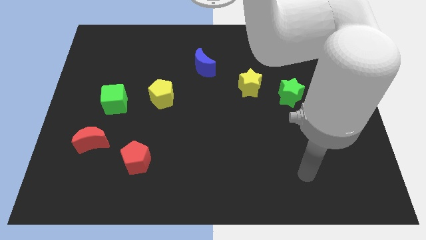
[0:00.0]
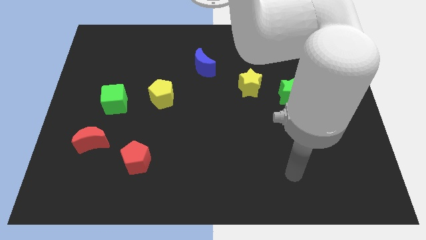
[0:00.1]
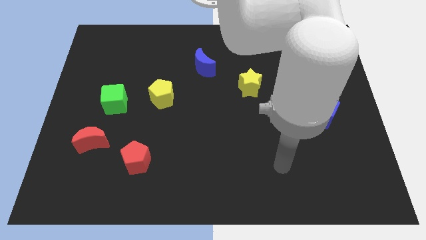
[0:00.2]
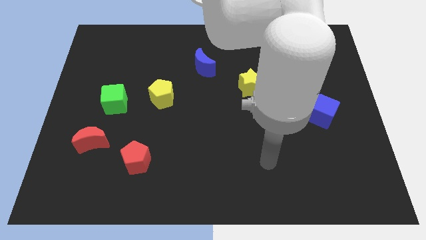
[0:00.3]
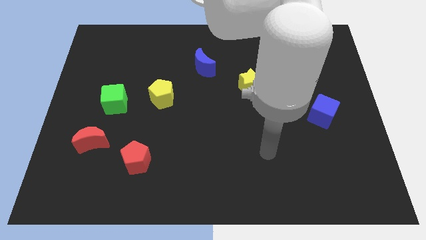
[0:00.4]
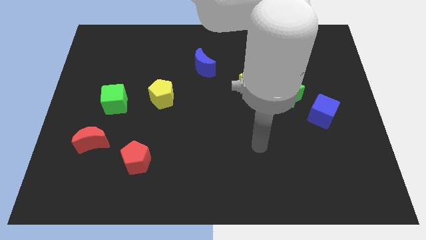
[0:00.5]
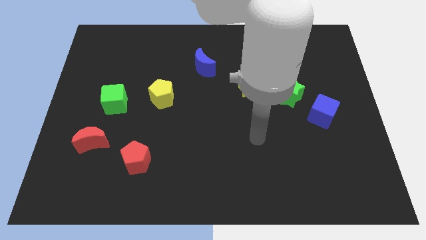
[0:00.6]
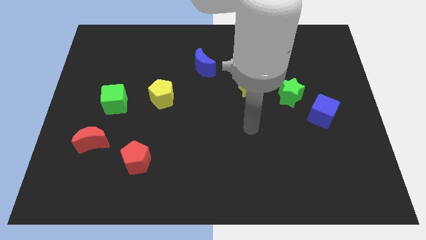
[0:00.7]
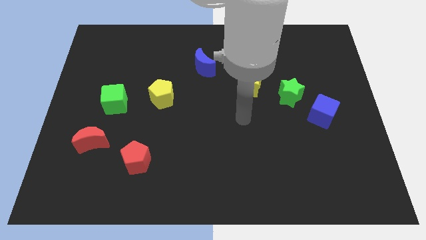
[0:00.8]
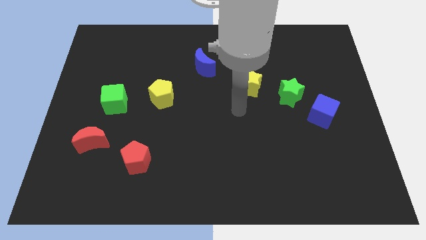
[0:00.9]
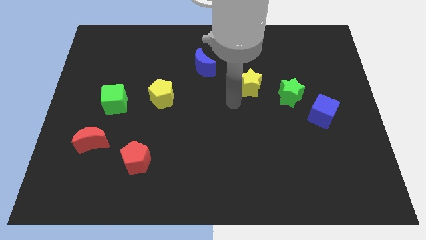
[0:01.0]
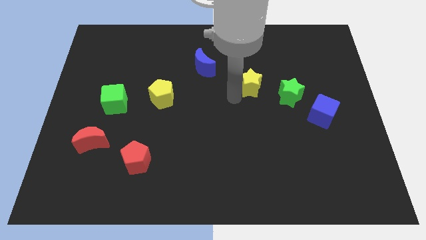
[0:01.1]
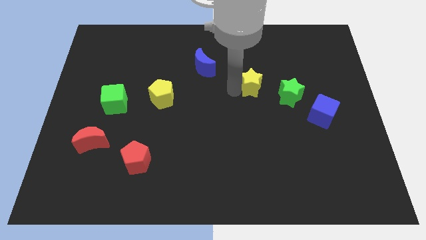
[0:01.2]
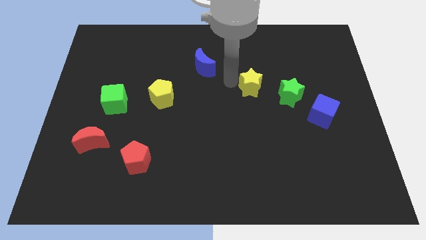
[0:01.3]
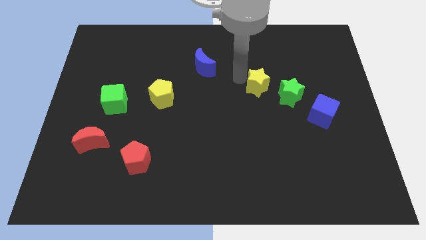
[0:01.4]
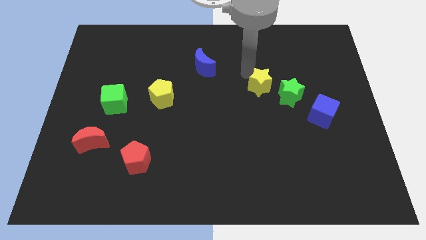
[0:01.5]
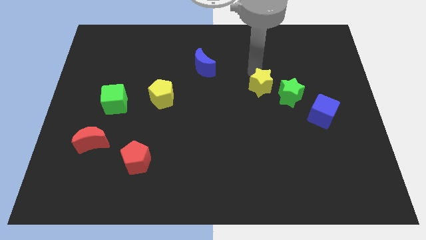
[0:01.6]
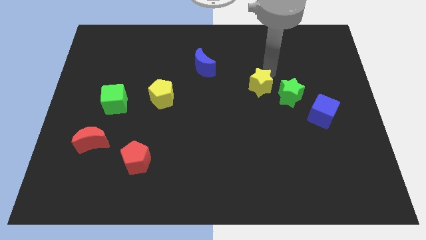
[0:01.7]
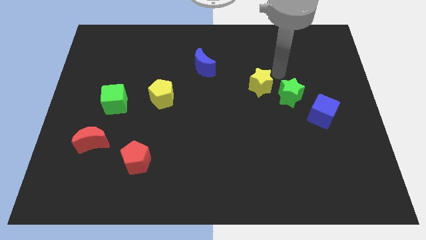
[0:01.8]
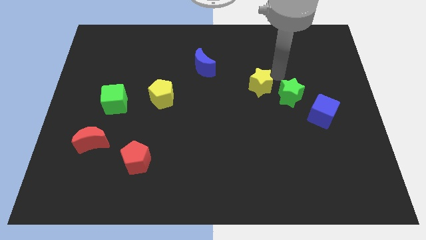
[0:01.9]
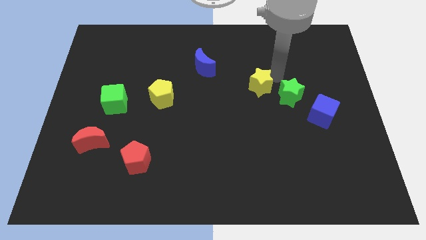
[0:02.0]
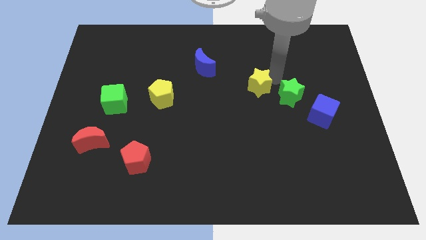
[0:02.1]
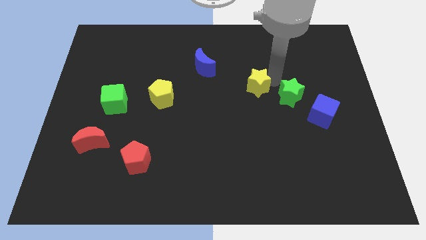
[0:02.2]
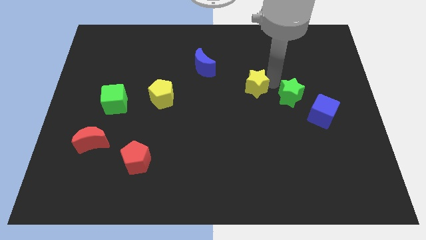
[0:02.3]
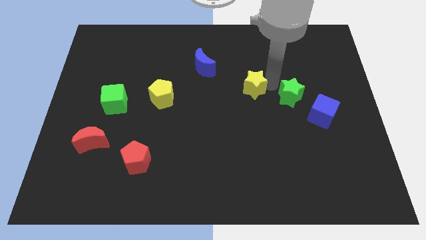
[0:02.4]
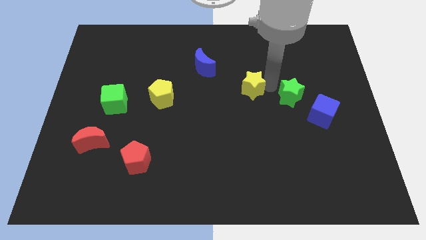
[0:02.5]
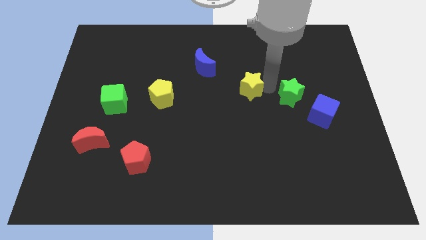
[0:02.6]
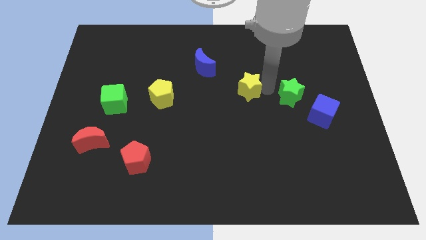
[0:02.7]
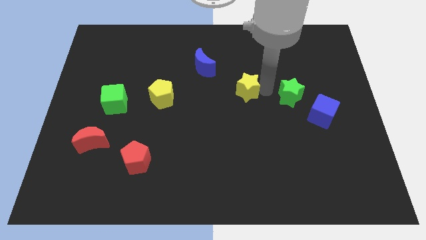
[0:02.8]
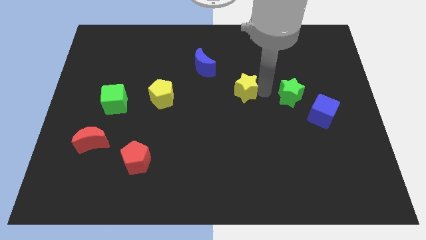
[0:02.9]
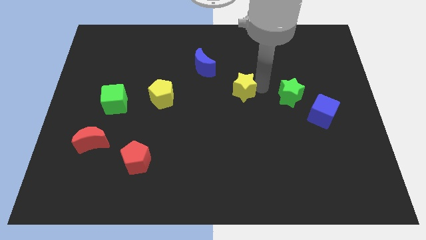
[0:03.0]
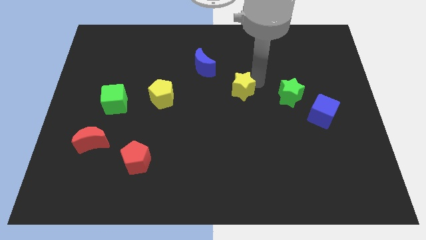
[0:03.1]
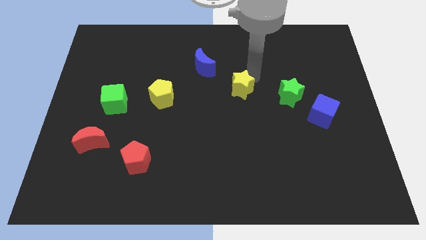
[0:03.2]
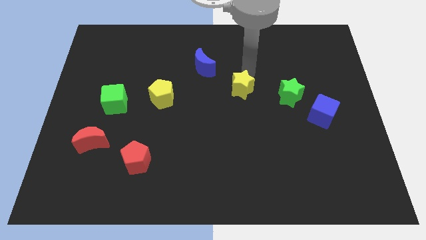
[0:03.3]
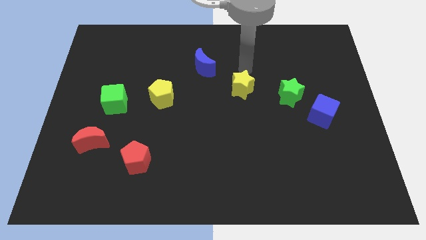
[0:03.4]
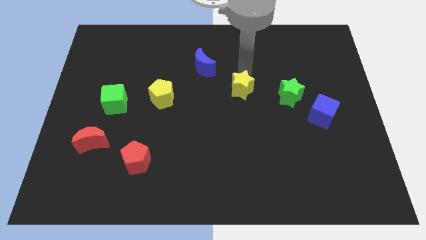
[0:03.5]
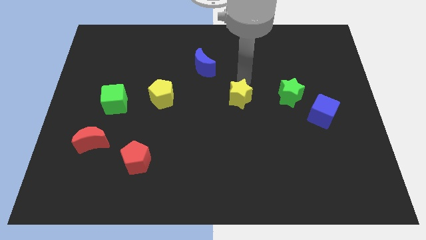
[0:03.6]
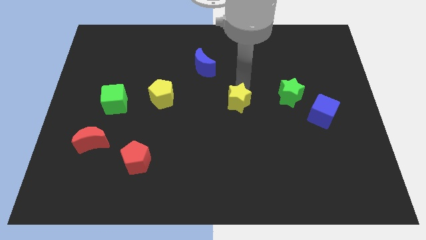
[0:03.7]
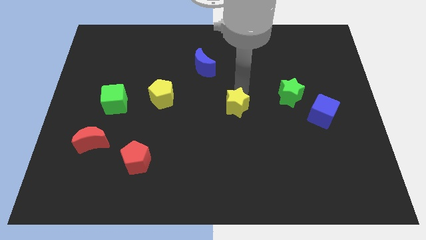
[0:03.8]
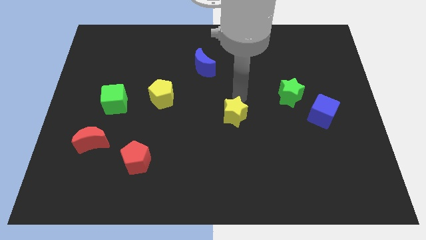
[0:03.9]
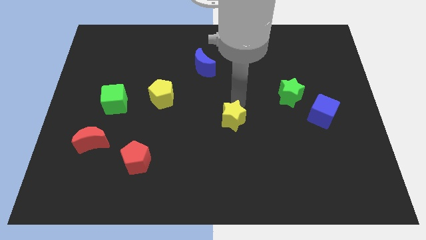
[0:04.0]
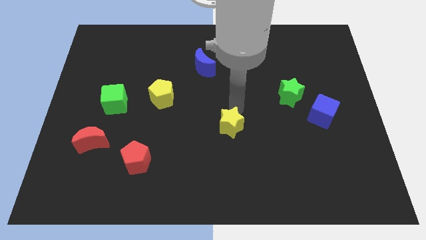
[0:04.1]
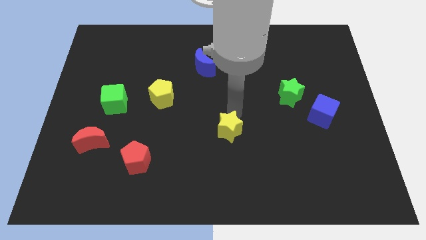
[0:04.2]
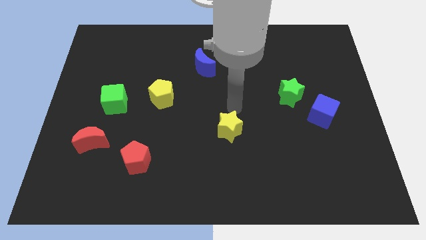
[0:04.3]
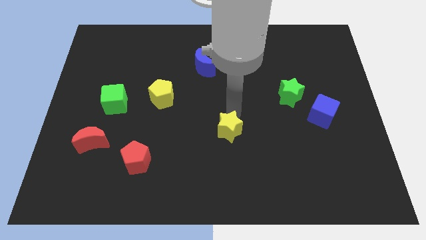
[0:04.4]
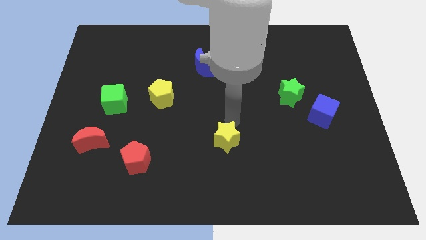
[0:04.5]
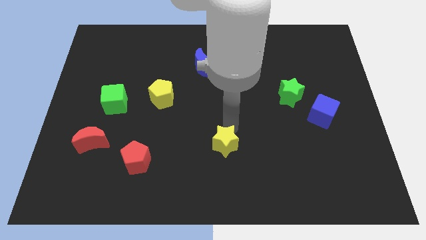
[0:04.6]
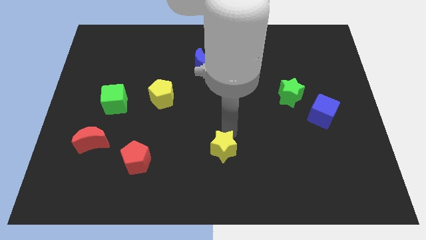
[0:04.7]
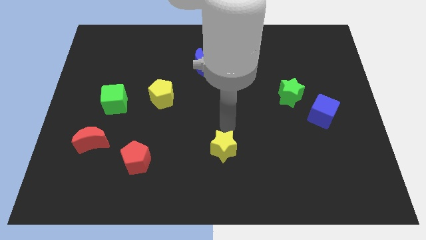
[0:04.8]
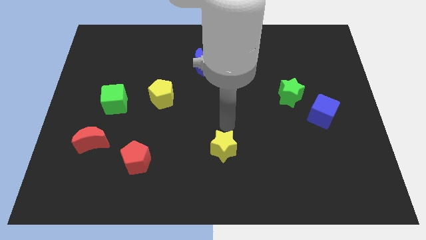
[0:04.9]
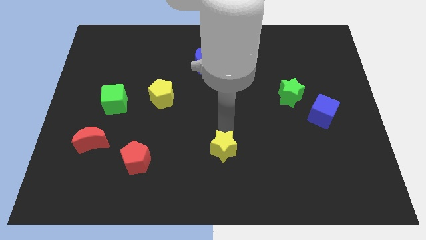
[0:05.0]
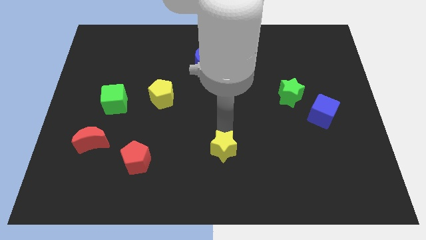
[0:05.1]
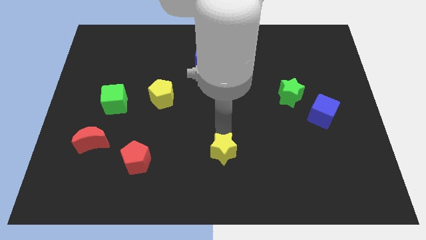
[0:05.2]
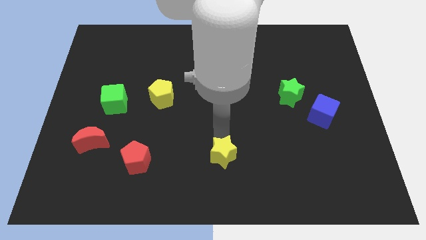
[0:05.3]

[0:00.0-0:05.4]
put the yellow star to the bottom
